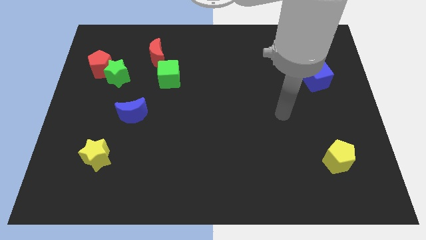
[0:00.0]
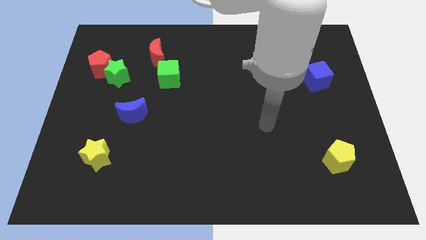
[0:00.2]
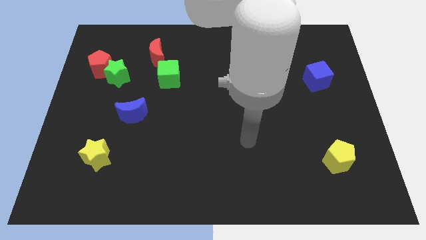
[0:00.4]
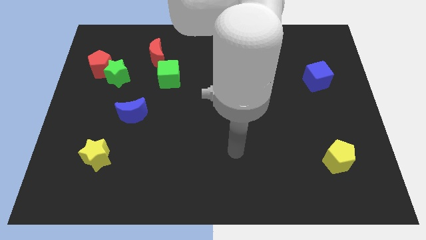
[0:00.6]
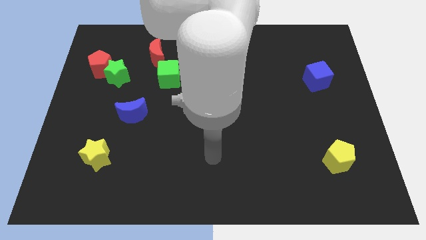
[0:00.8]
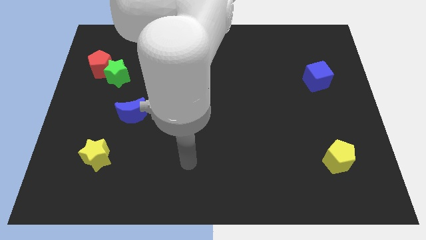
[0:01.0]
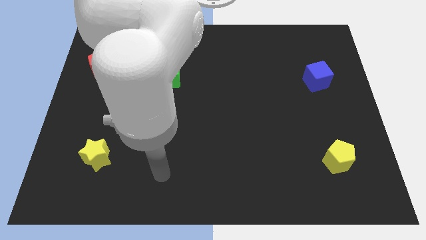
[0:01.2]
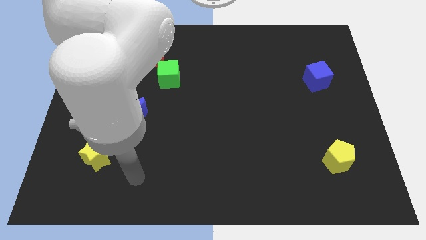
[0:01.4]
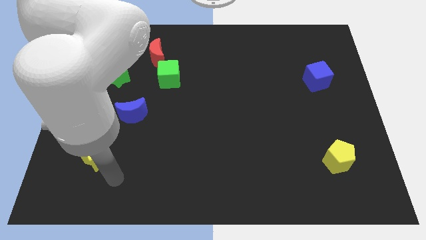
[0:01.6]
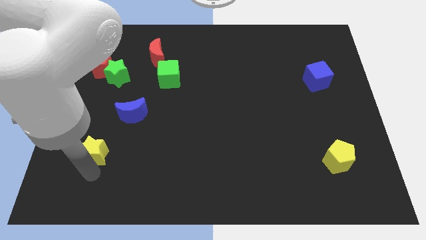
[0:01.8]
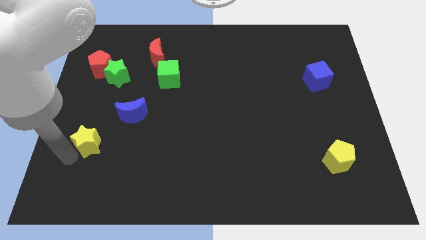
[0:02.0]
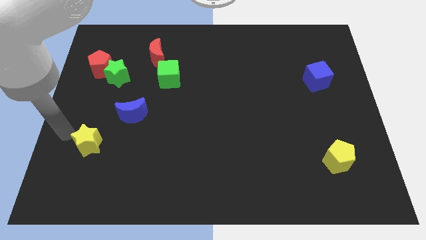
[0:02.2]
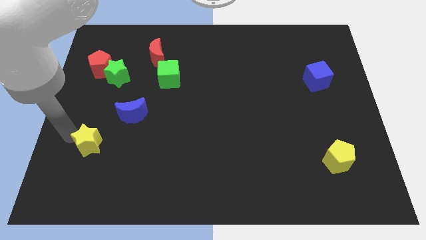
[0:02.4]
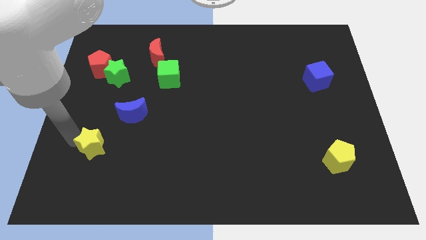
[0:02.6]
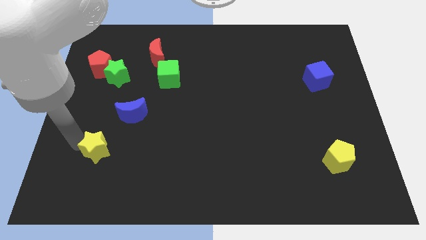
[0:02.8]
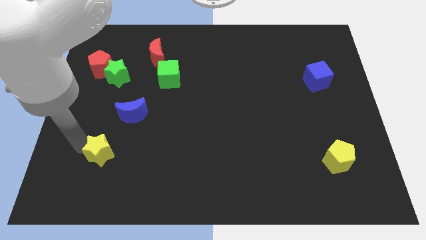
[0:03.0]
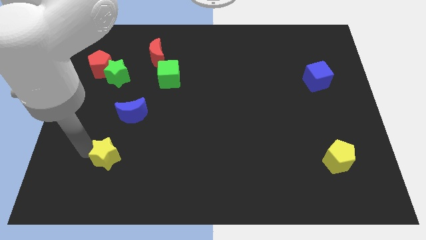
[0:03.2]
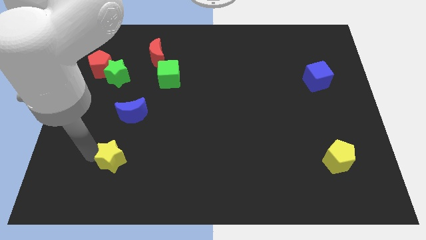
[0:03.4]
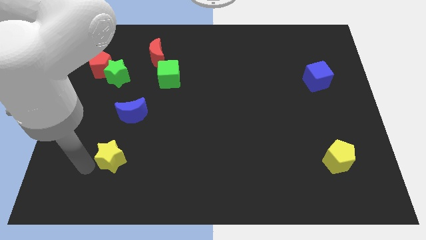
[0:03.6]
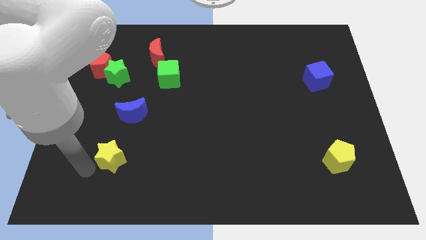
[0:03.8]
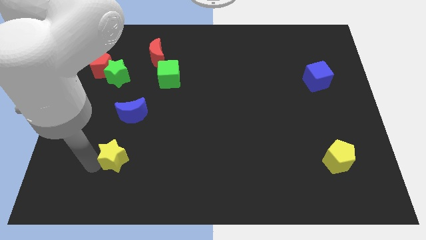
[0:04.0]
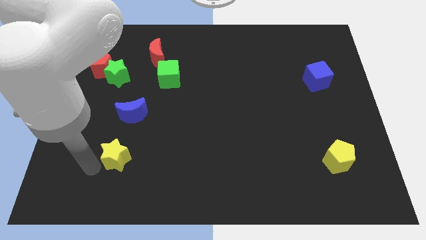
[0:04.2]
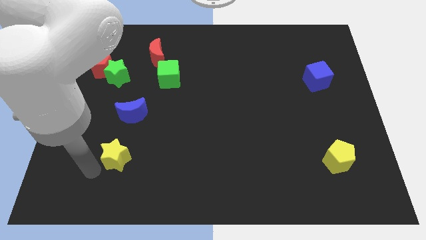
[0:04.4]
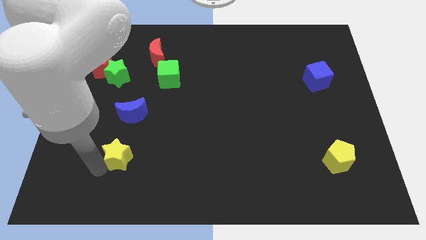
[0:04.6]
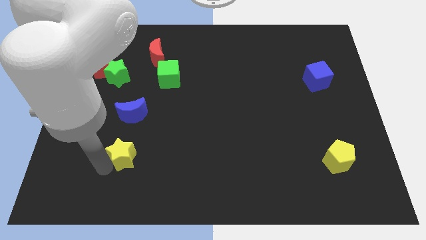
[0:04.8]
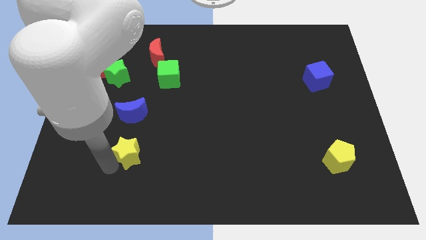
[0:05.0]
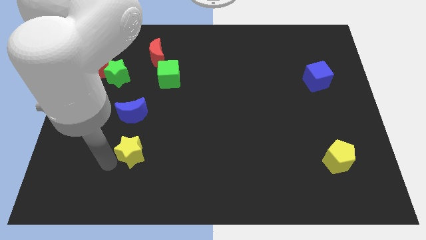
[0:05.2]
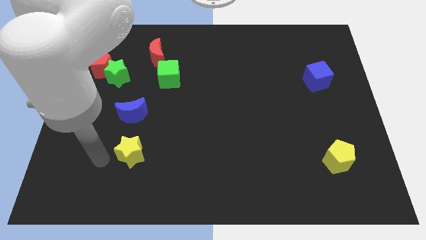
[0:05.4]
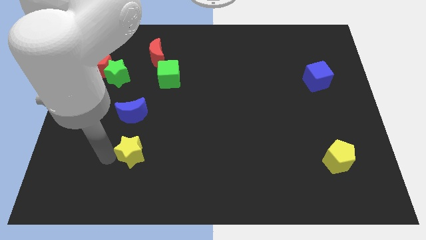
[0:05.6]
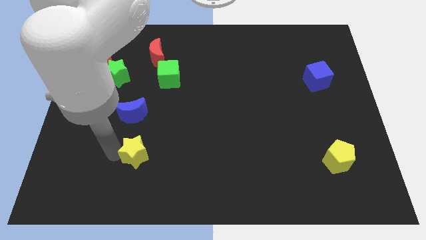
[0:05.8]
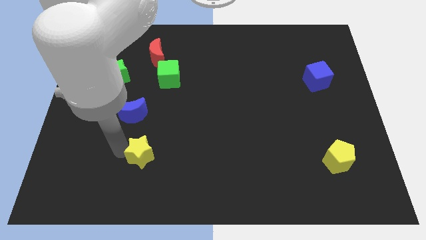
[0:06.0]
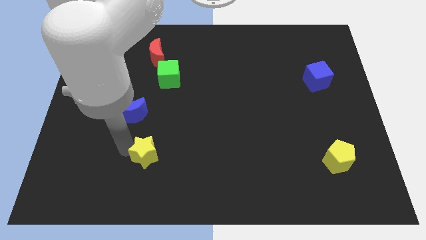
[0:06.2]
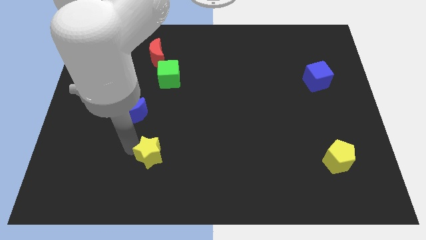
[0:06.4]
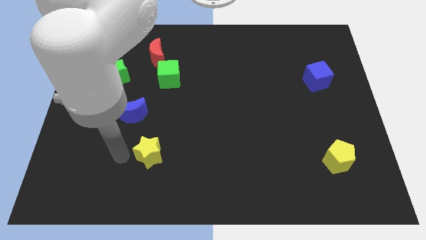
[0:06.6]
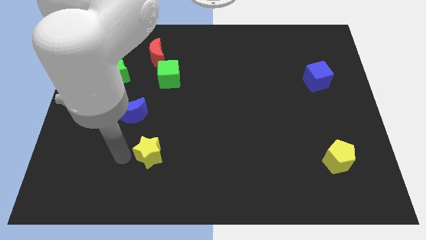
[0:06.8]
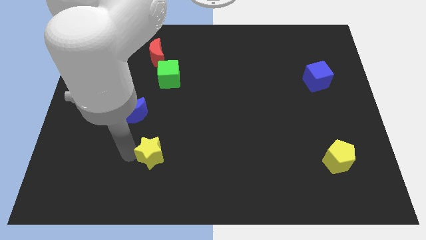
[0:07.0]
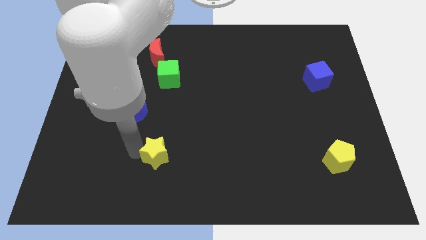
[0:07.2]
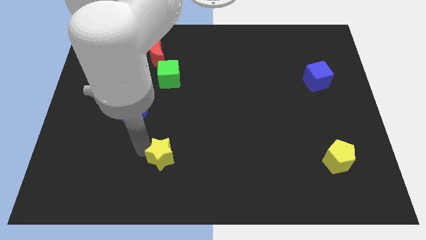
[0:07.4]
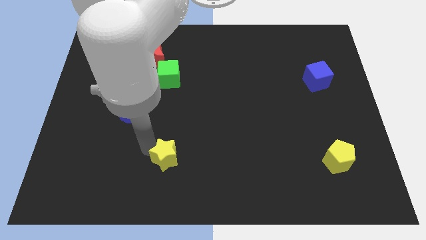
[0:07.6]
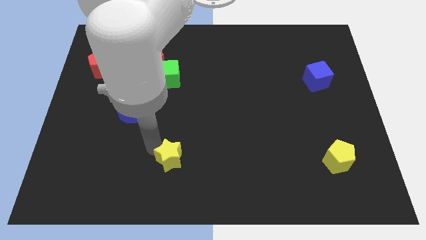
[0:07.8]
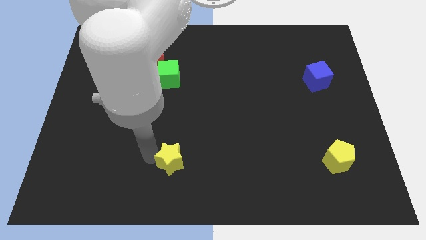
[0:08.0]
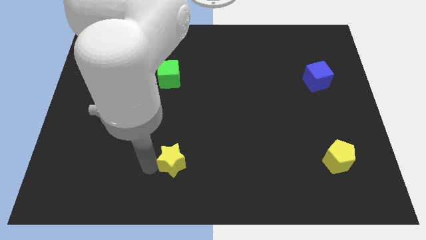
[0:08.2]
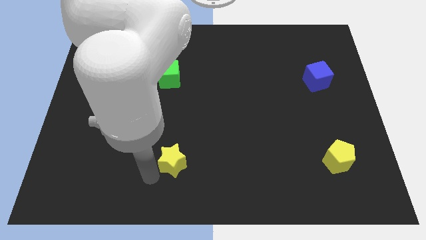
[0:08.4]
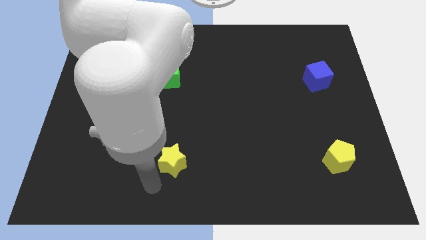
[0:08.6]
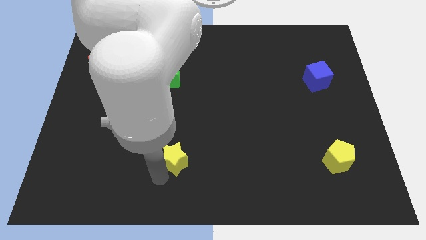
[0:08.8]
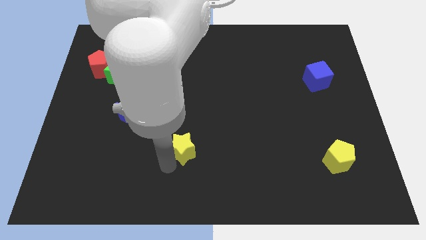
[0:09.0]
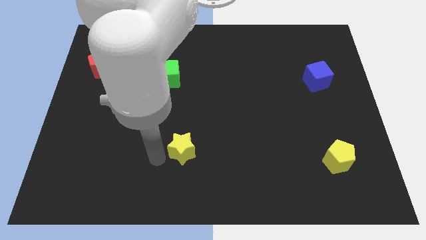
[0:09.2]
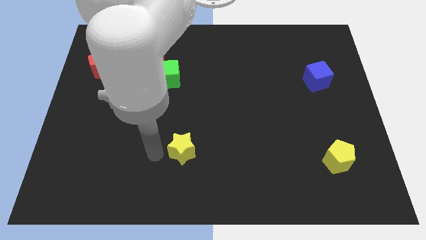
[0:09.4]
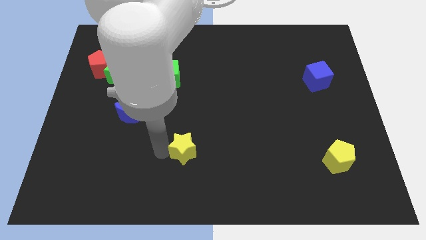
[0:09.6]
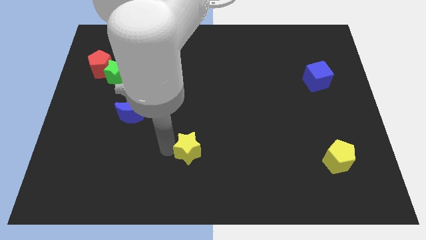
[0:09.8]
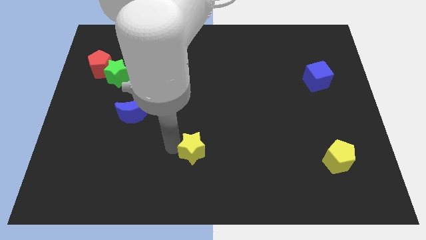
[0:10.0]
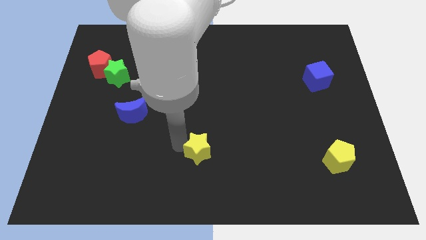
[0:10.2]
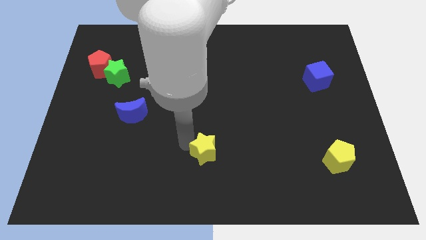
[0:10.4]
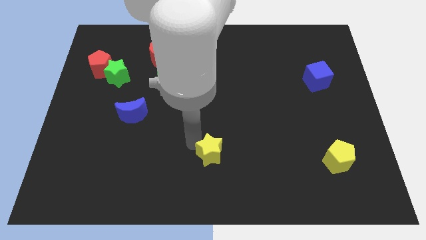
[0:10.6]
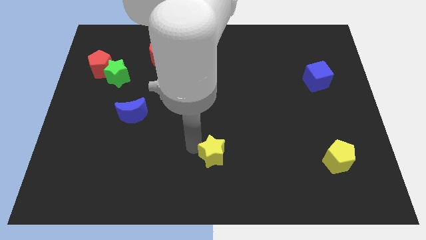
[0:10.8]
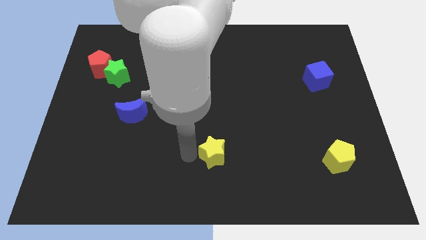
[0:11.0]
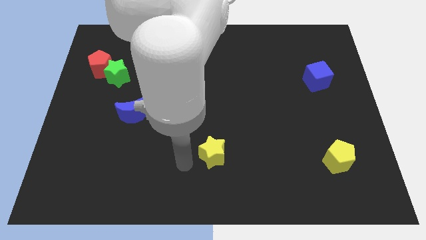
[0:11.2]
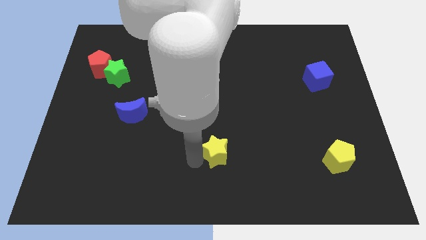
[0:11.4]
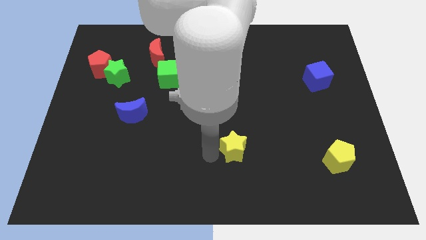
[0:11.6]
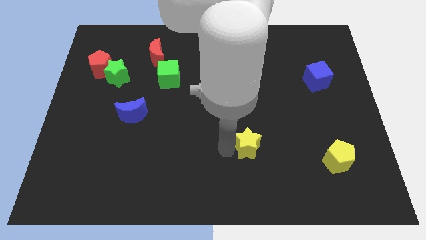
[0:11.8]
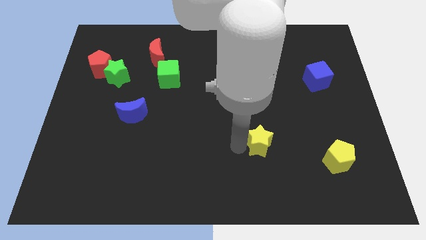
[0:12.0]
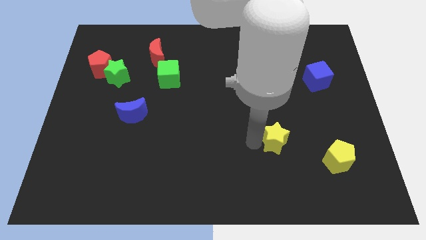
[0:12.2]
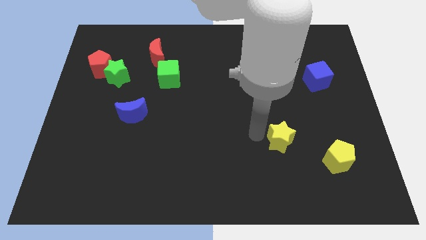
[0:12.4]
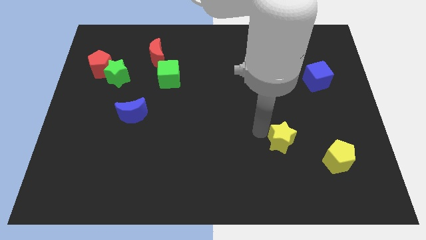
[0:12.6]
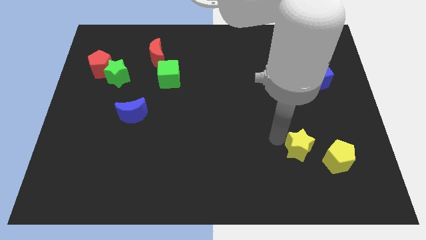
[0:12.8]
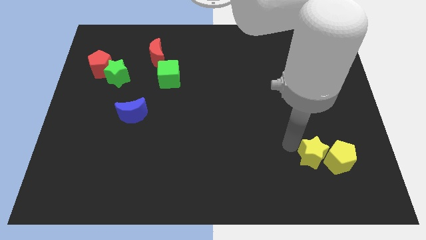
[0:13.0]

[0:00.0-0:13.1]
put the yellow star next to the yellow pentagon

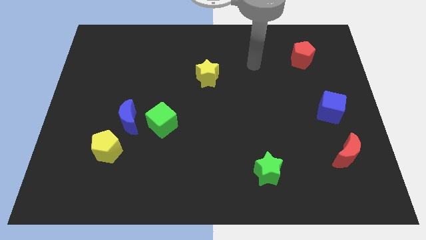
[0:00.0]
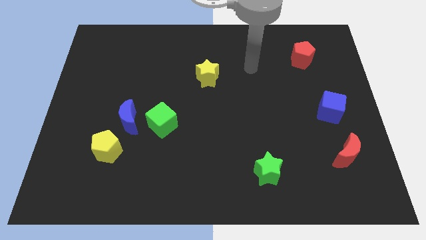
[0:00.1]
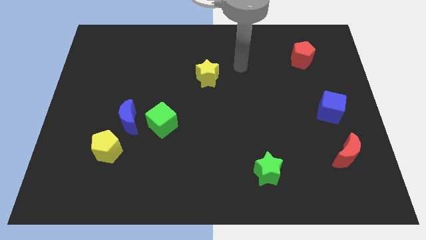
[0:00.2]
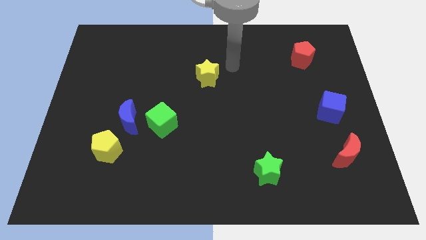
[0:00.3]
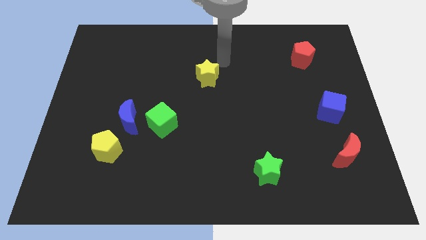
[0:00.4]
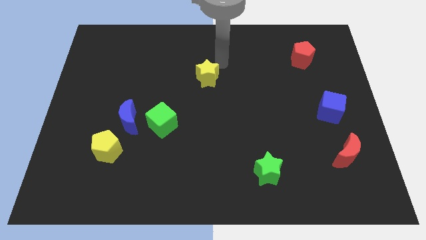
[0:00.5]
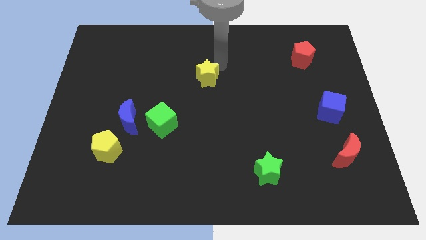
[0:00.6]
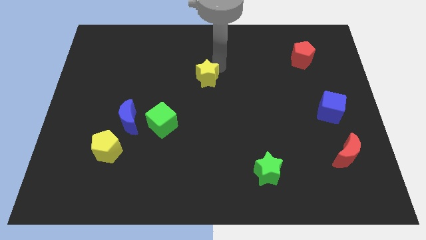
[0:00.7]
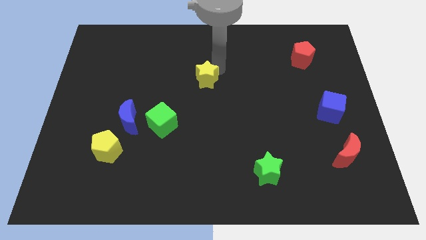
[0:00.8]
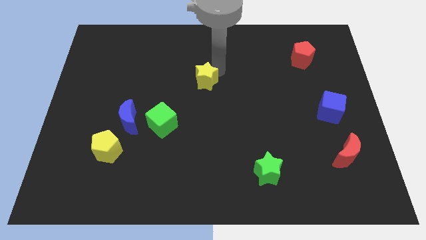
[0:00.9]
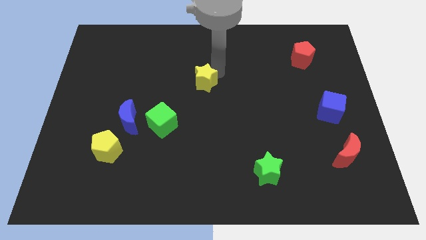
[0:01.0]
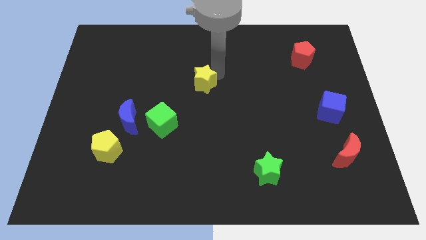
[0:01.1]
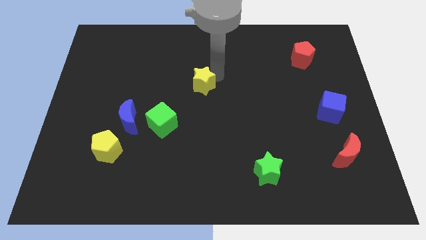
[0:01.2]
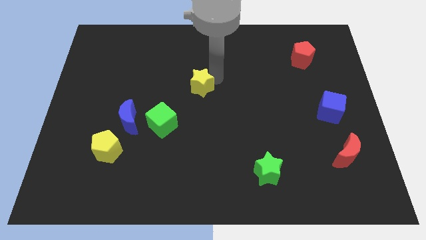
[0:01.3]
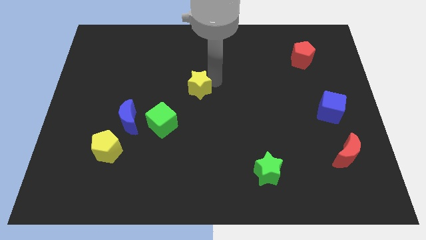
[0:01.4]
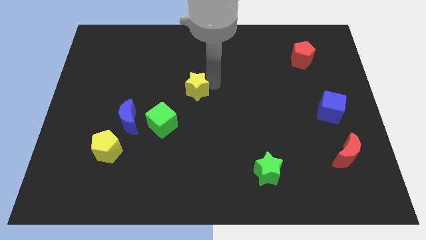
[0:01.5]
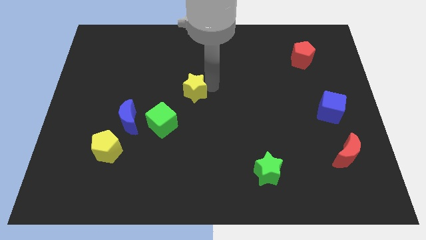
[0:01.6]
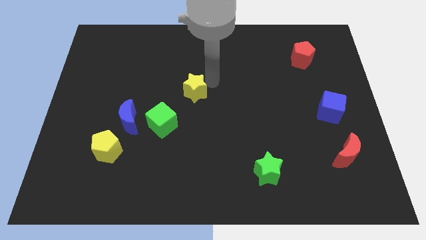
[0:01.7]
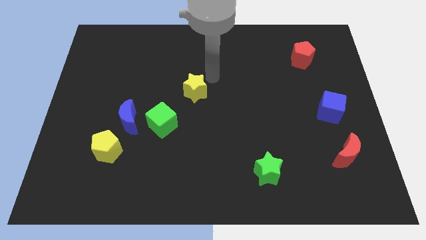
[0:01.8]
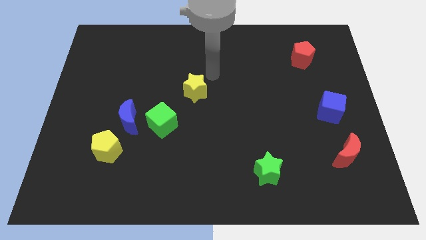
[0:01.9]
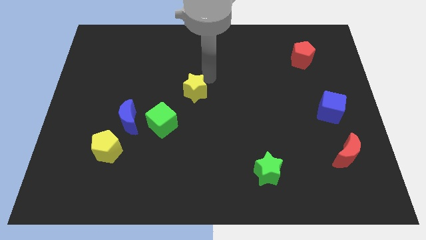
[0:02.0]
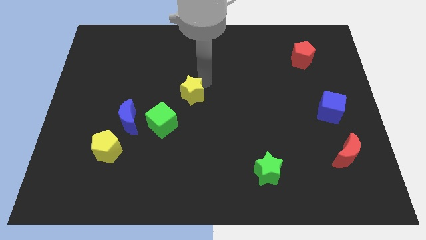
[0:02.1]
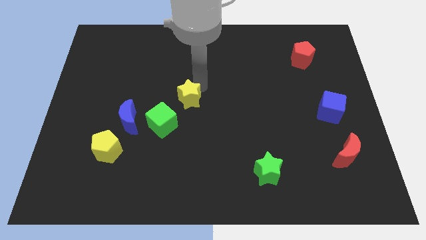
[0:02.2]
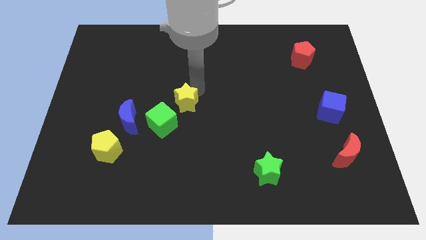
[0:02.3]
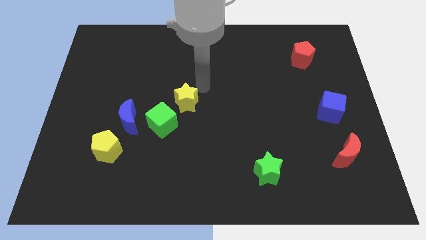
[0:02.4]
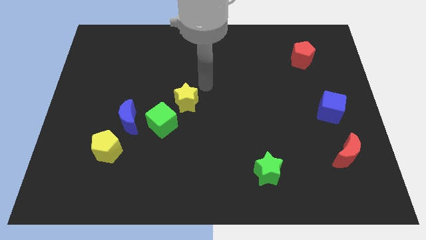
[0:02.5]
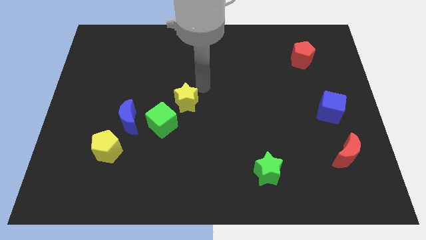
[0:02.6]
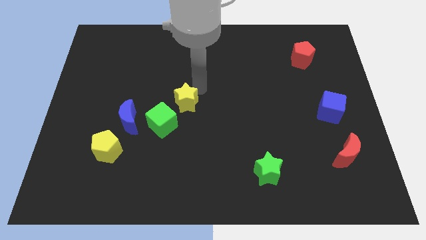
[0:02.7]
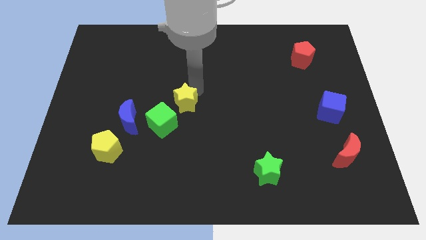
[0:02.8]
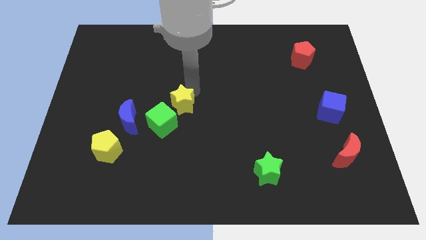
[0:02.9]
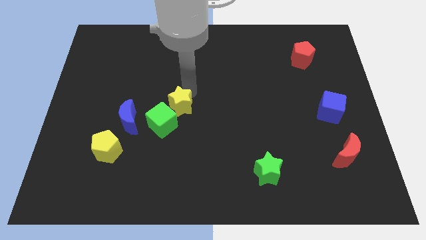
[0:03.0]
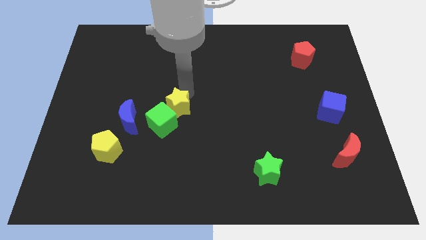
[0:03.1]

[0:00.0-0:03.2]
push the yellow star to the green cube
